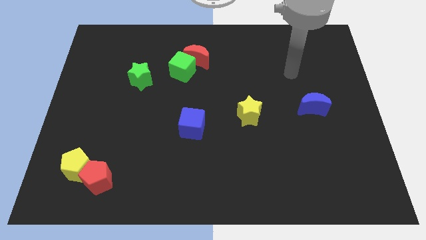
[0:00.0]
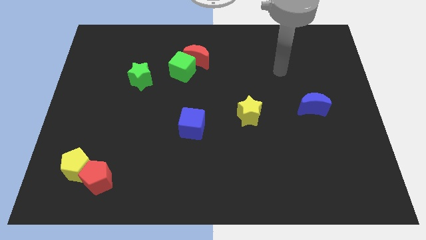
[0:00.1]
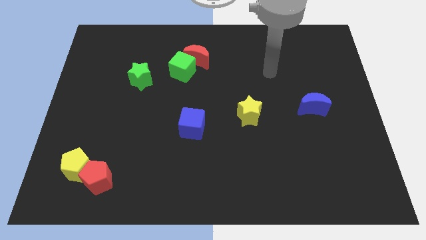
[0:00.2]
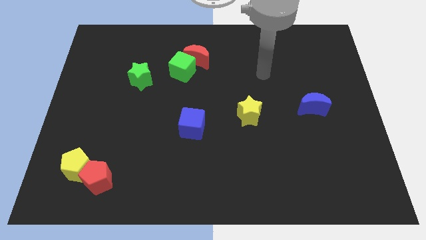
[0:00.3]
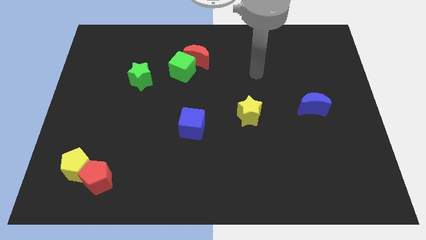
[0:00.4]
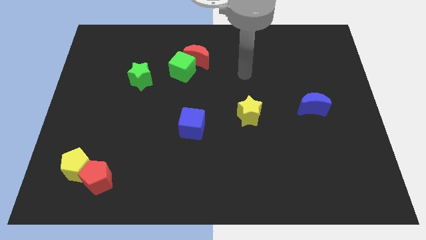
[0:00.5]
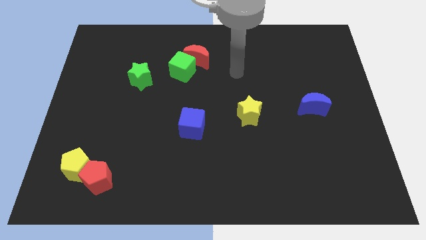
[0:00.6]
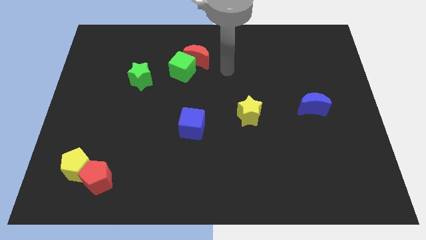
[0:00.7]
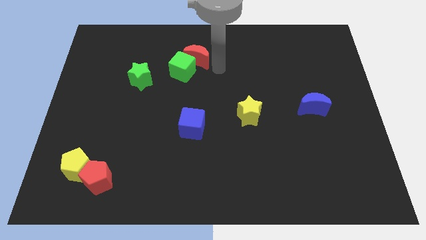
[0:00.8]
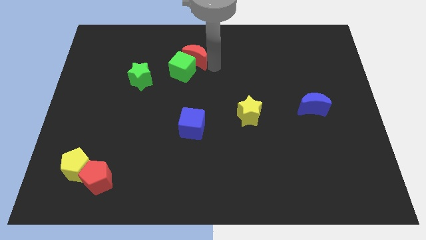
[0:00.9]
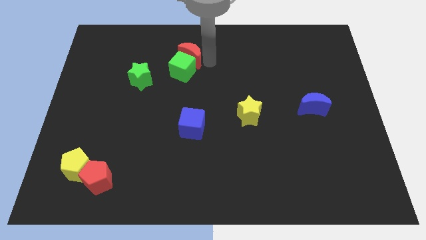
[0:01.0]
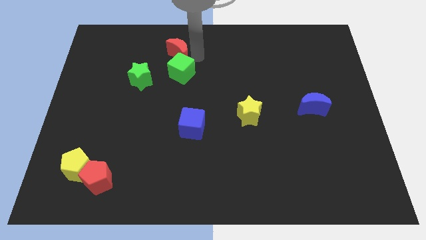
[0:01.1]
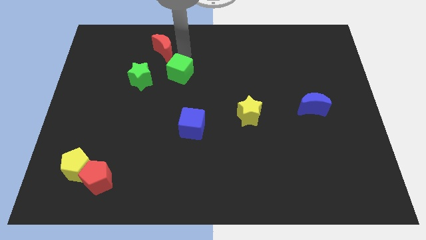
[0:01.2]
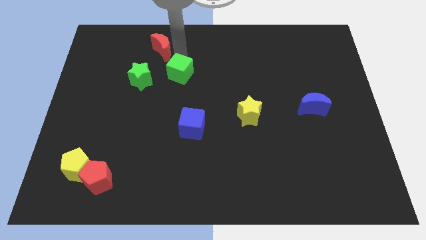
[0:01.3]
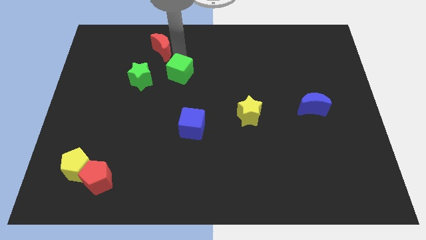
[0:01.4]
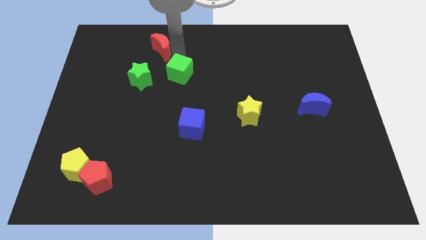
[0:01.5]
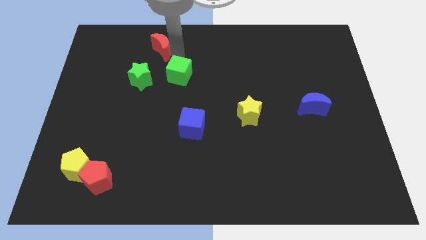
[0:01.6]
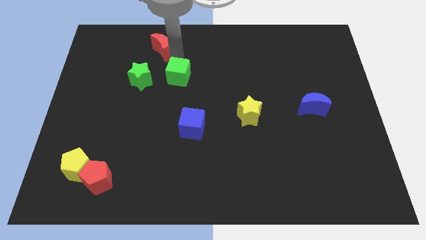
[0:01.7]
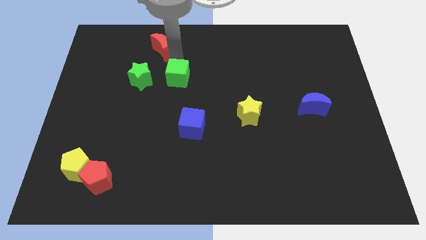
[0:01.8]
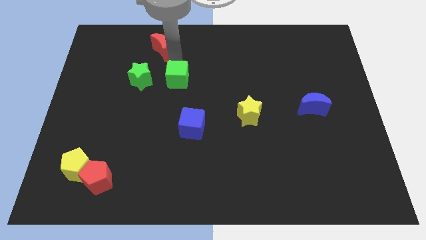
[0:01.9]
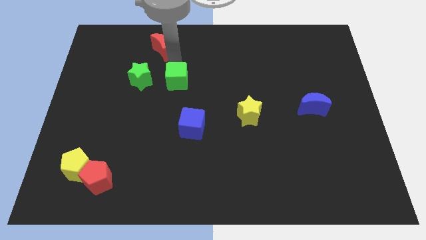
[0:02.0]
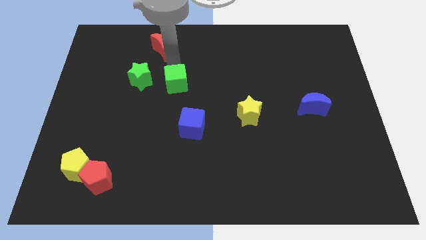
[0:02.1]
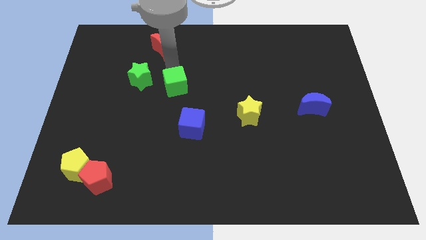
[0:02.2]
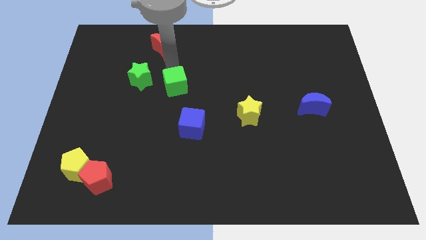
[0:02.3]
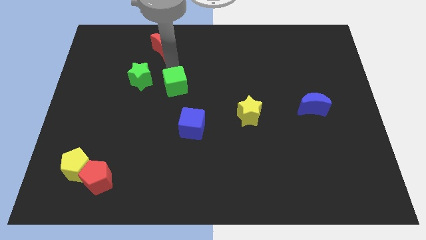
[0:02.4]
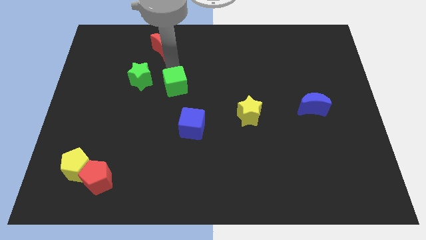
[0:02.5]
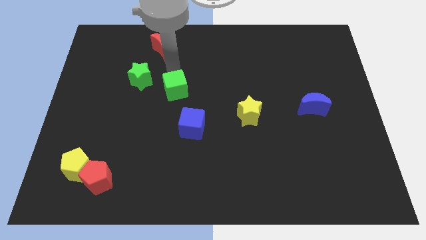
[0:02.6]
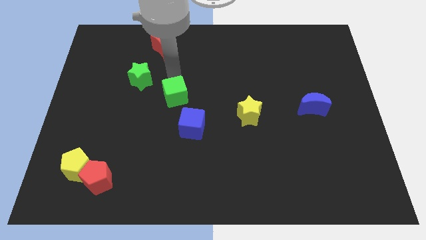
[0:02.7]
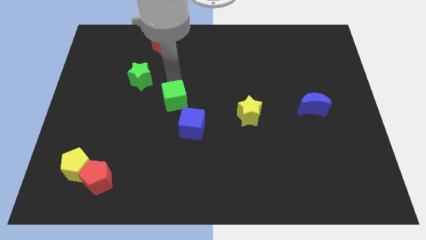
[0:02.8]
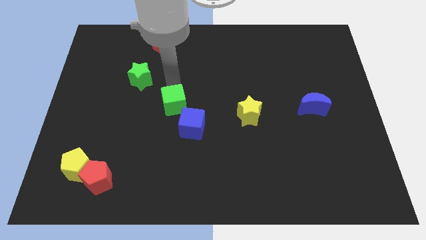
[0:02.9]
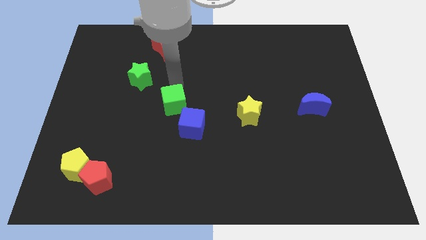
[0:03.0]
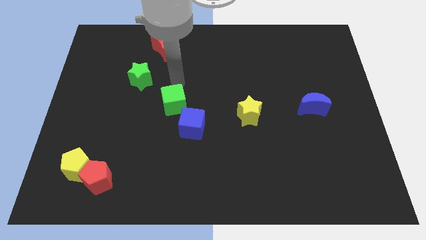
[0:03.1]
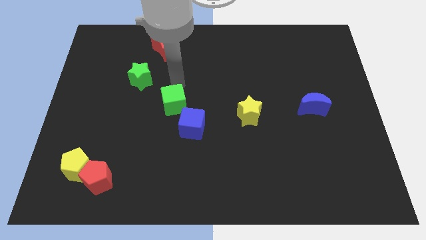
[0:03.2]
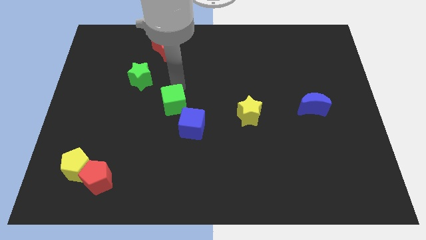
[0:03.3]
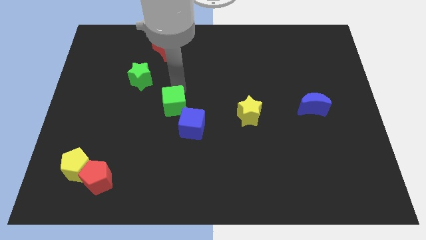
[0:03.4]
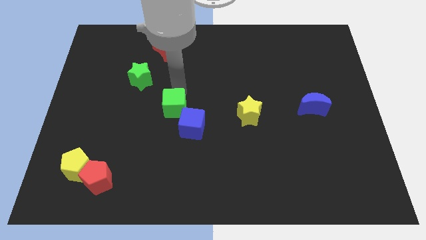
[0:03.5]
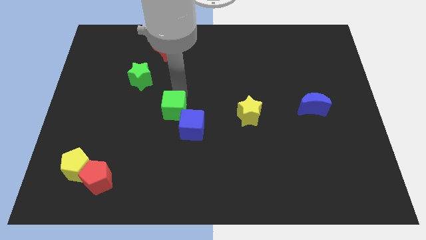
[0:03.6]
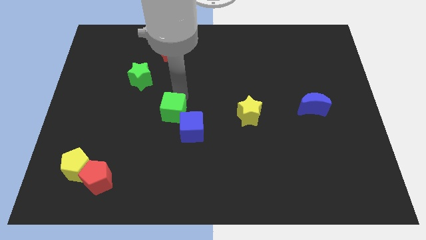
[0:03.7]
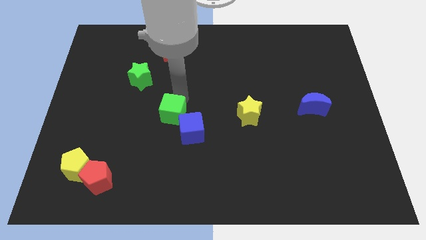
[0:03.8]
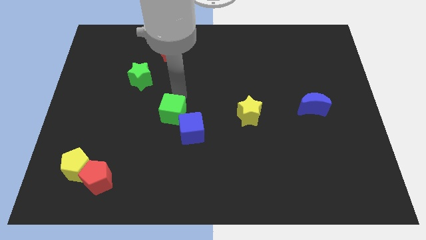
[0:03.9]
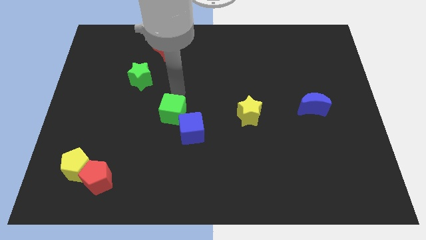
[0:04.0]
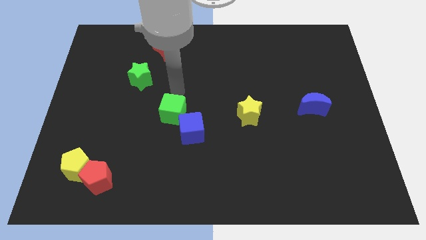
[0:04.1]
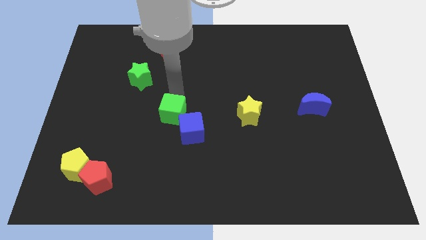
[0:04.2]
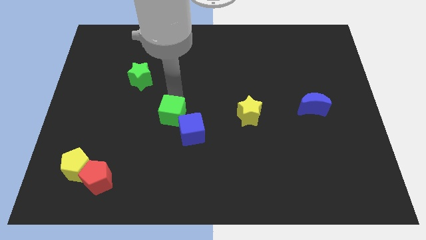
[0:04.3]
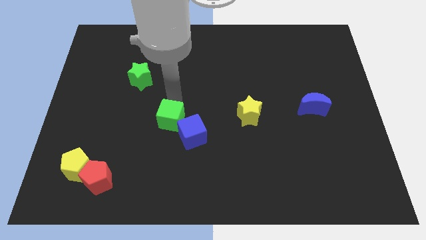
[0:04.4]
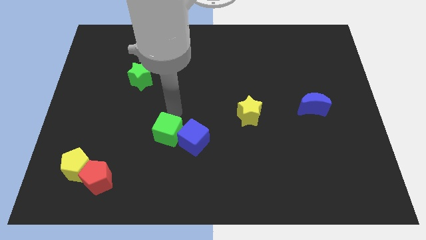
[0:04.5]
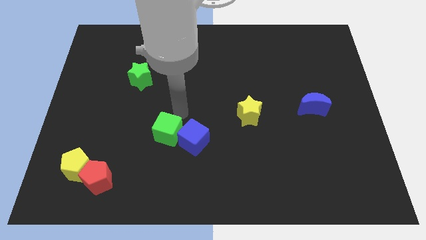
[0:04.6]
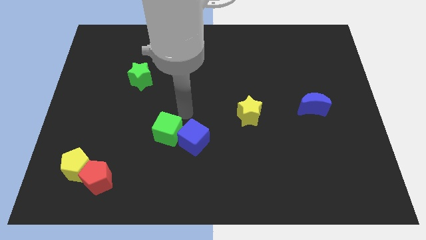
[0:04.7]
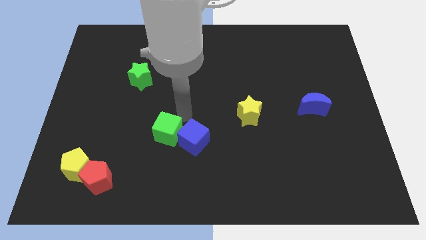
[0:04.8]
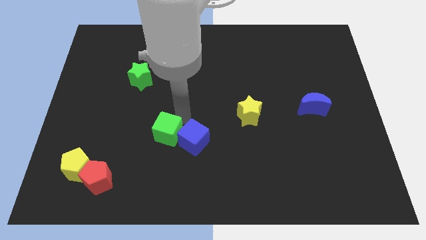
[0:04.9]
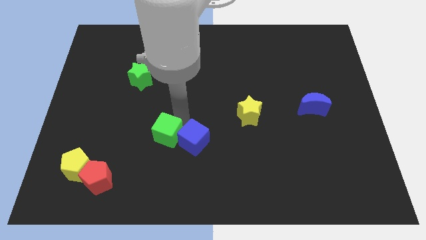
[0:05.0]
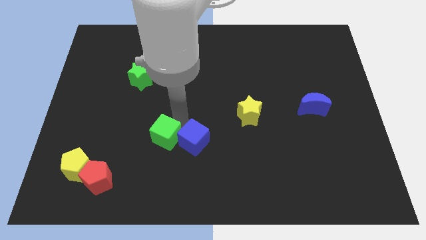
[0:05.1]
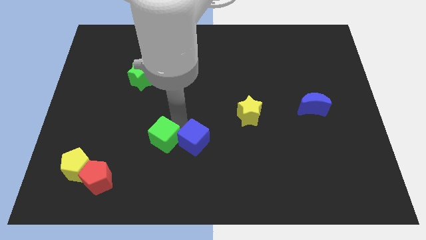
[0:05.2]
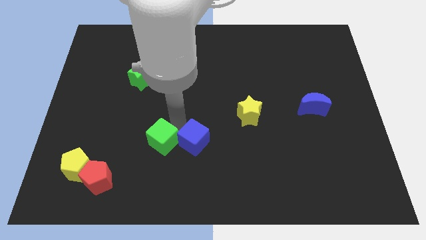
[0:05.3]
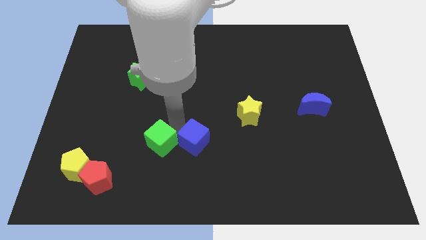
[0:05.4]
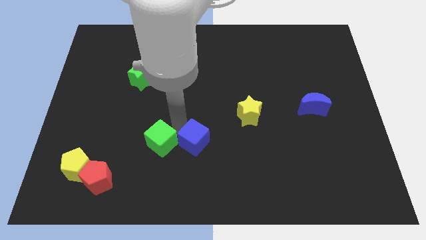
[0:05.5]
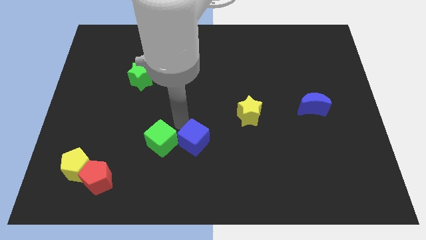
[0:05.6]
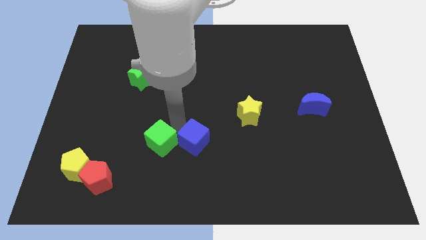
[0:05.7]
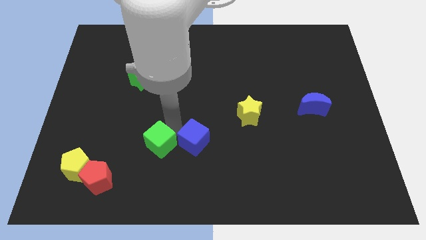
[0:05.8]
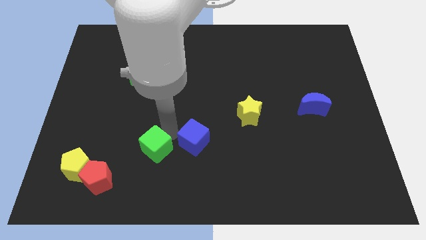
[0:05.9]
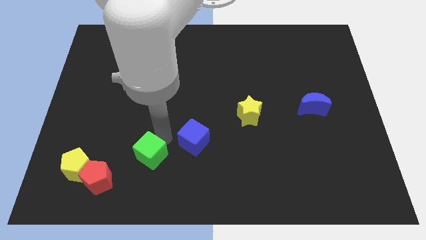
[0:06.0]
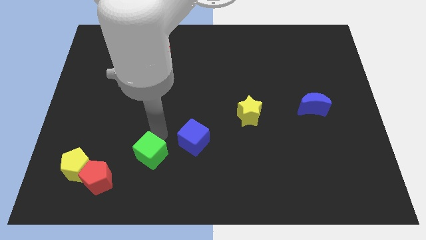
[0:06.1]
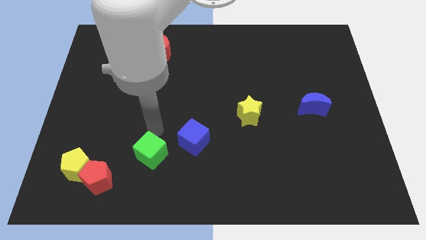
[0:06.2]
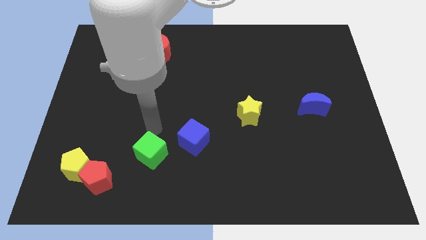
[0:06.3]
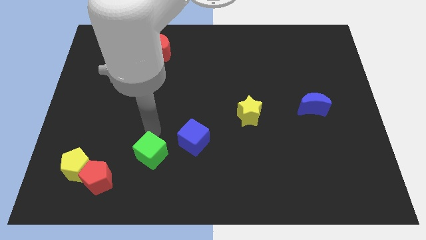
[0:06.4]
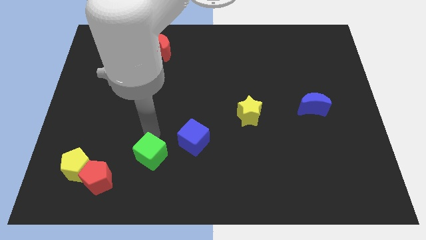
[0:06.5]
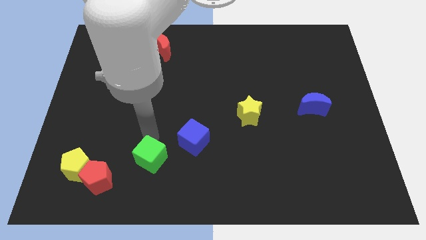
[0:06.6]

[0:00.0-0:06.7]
push the green cube to the right of the red pentagon

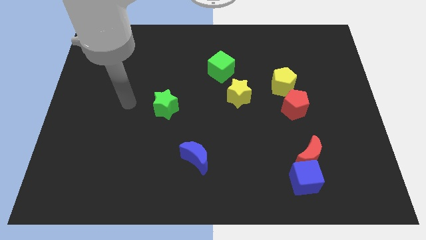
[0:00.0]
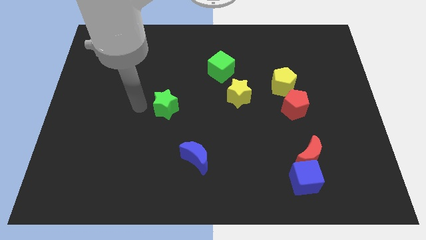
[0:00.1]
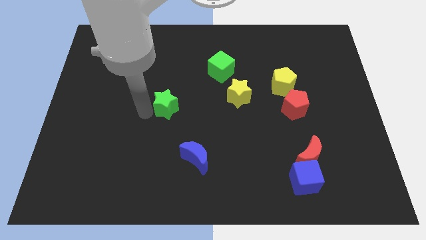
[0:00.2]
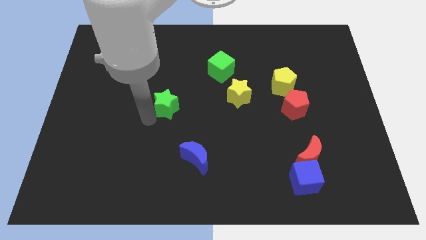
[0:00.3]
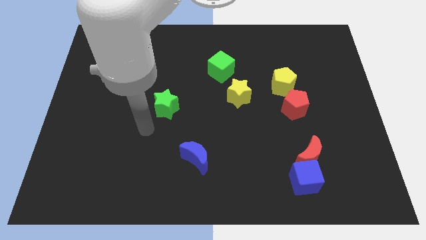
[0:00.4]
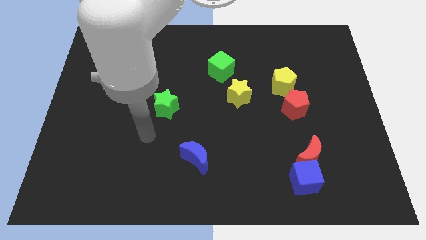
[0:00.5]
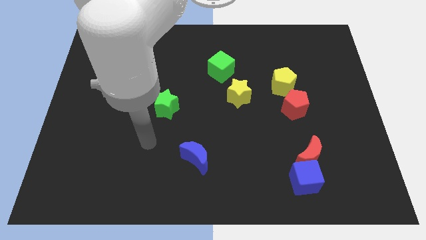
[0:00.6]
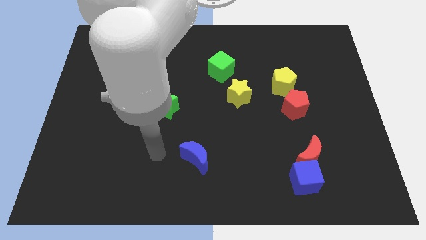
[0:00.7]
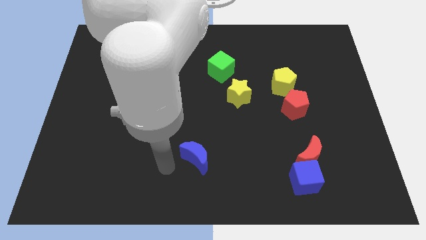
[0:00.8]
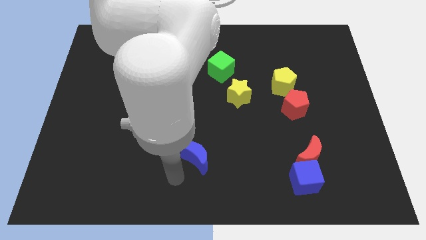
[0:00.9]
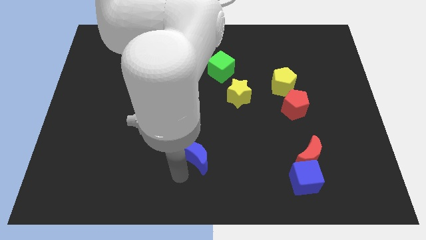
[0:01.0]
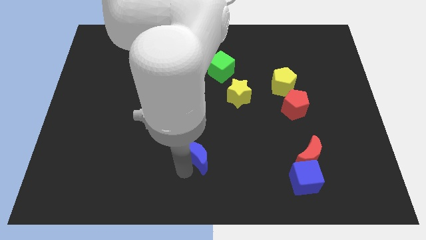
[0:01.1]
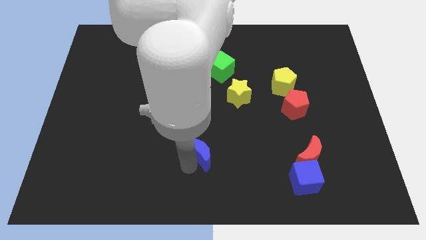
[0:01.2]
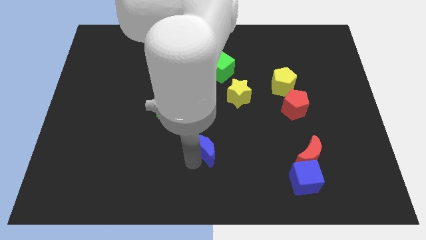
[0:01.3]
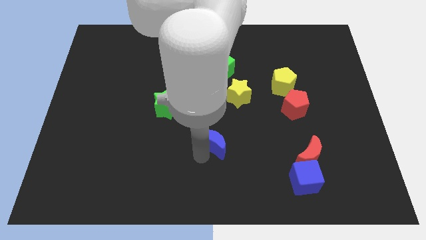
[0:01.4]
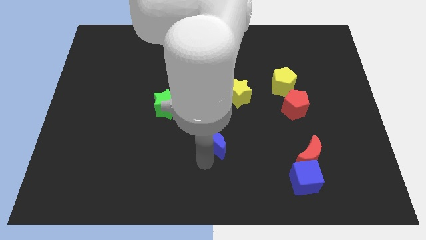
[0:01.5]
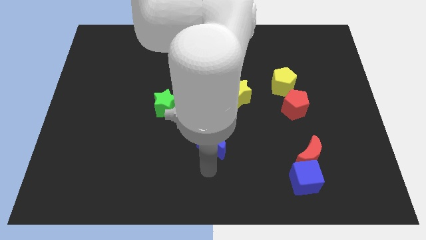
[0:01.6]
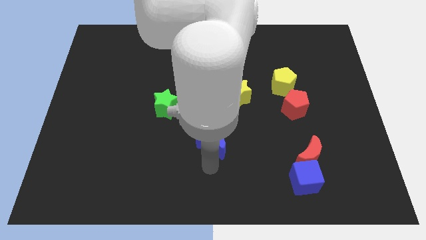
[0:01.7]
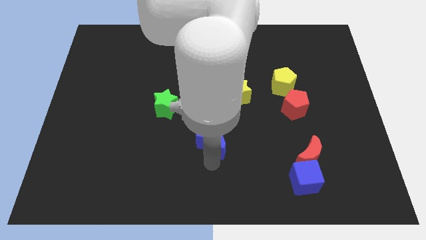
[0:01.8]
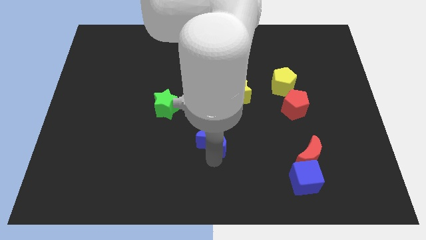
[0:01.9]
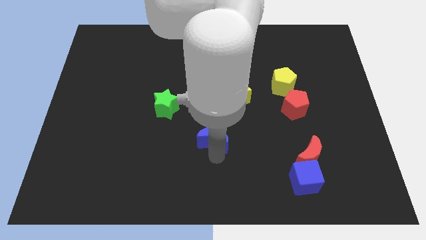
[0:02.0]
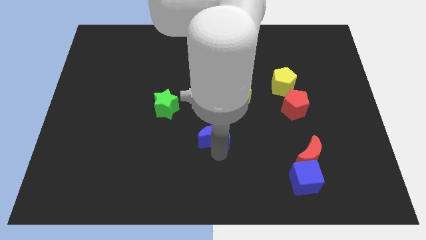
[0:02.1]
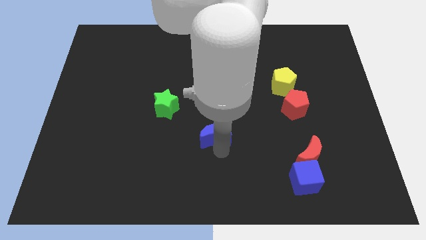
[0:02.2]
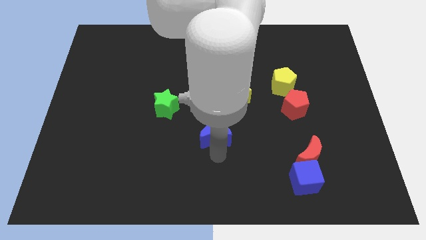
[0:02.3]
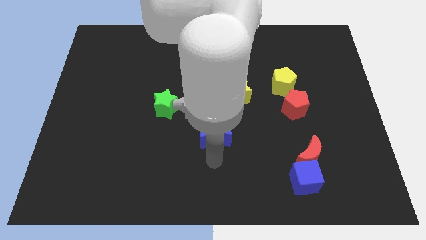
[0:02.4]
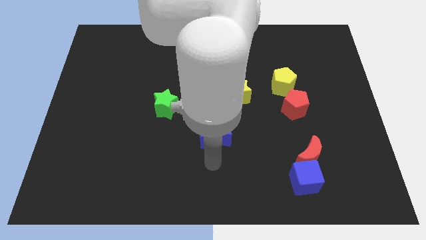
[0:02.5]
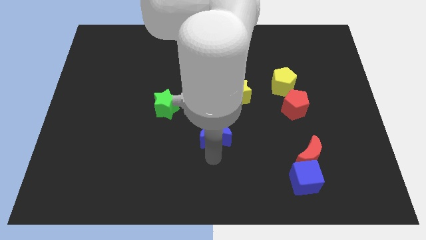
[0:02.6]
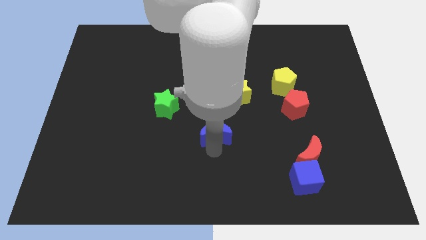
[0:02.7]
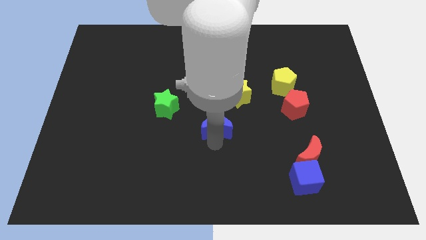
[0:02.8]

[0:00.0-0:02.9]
slide the blue moon to the bottom left side of the yellow star
